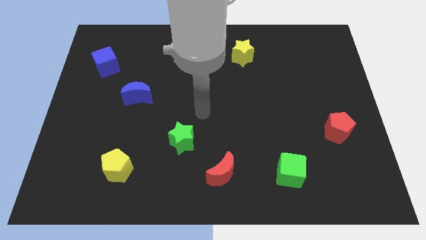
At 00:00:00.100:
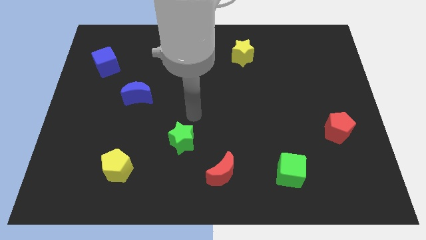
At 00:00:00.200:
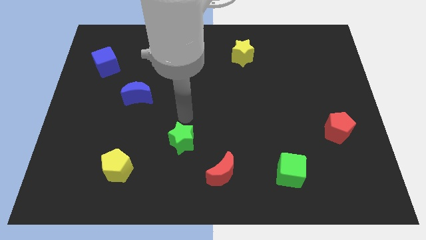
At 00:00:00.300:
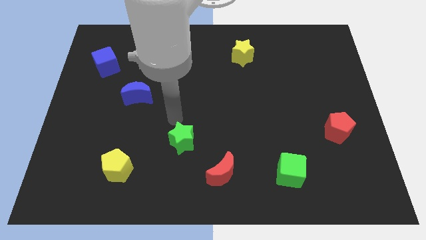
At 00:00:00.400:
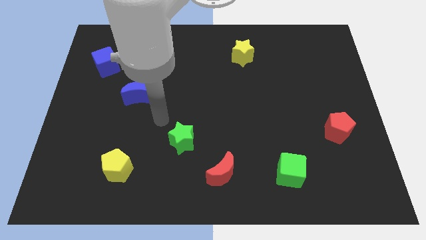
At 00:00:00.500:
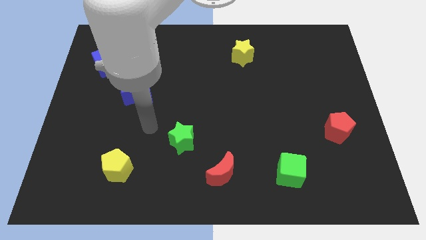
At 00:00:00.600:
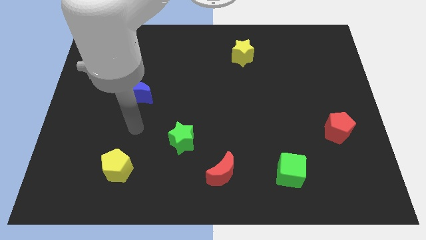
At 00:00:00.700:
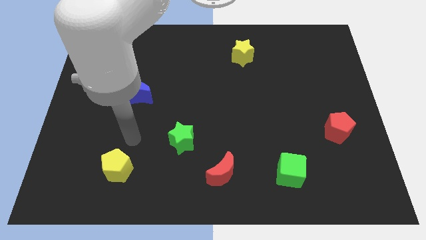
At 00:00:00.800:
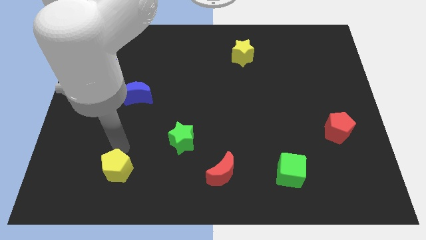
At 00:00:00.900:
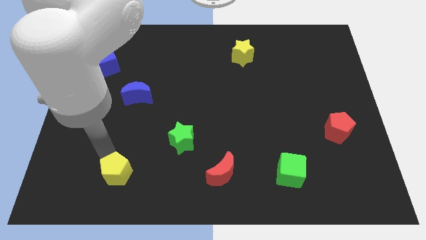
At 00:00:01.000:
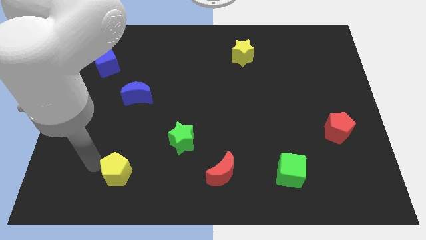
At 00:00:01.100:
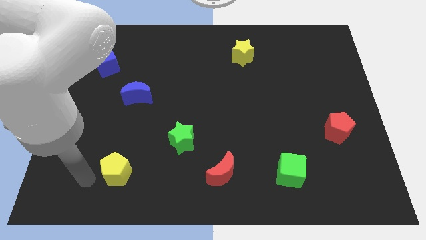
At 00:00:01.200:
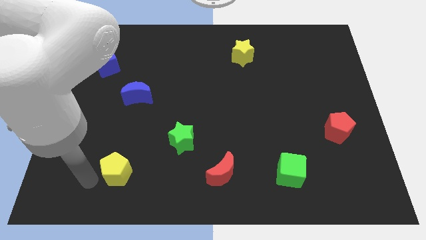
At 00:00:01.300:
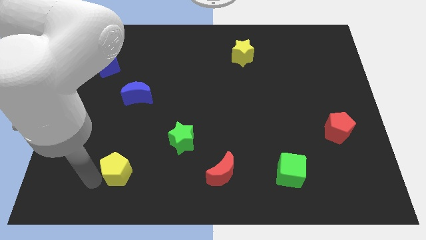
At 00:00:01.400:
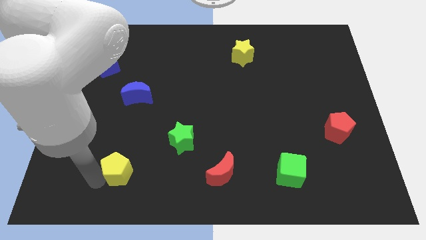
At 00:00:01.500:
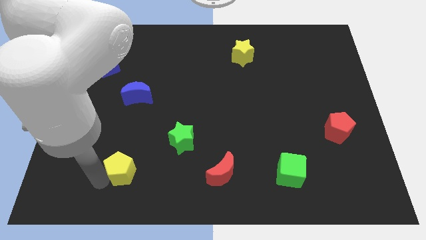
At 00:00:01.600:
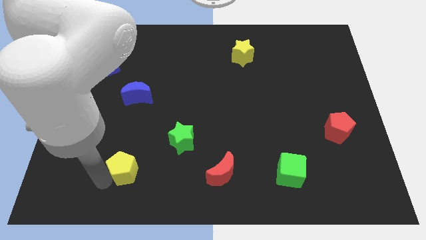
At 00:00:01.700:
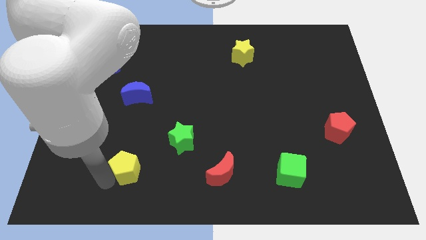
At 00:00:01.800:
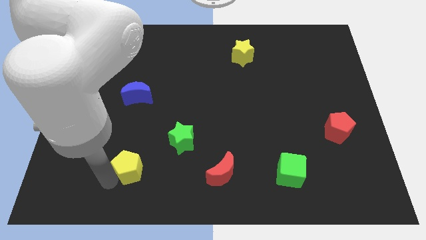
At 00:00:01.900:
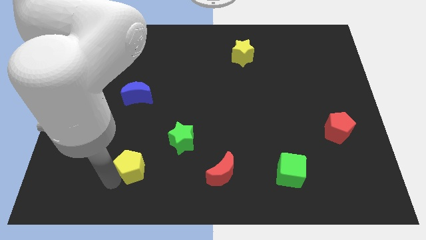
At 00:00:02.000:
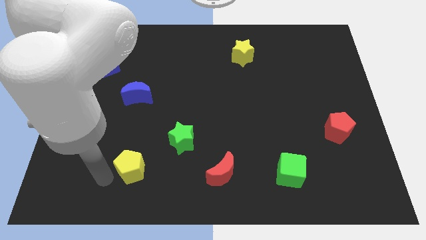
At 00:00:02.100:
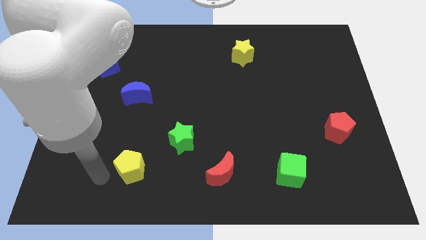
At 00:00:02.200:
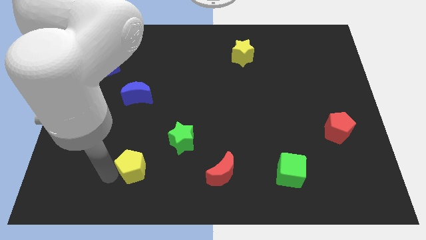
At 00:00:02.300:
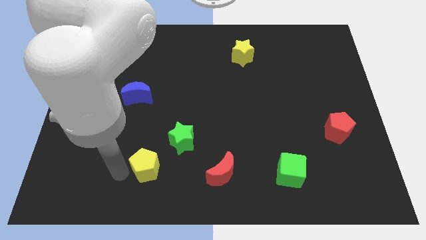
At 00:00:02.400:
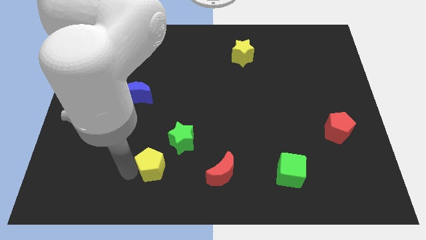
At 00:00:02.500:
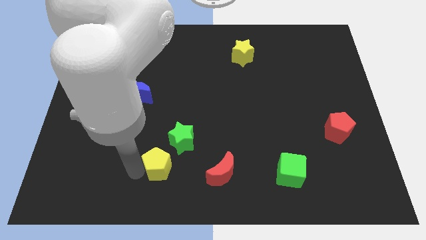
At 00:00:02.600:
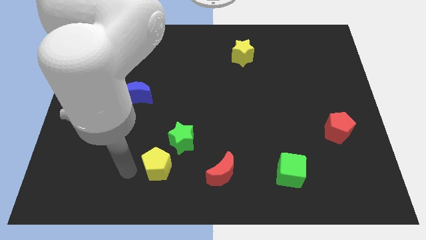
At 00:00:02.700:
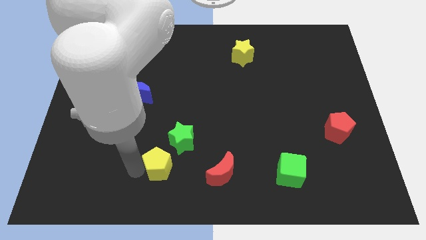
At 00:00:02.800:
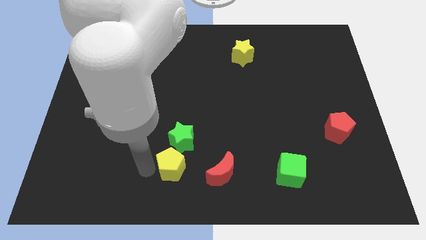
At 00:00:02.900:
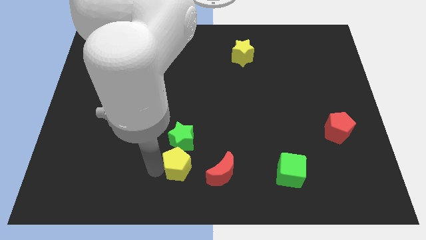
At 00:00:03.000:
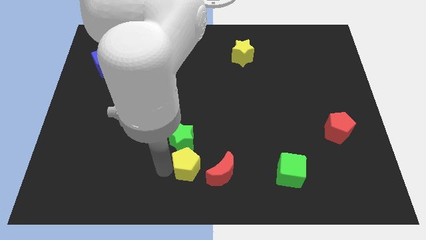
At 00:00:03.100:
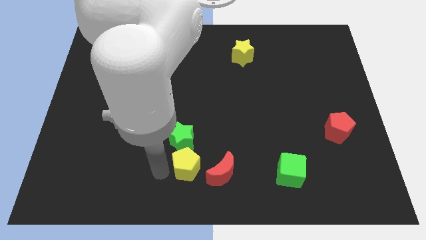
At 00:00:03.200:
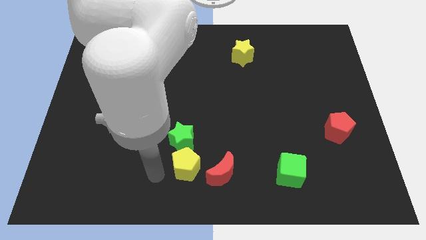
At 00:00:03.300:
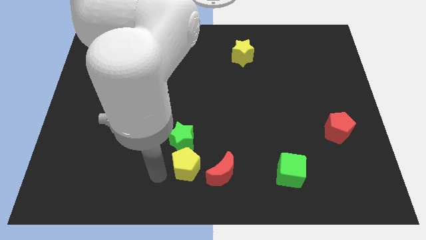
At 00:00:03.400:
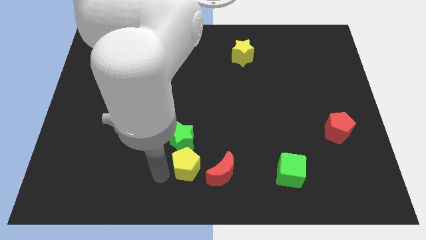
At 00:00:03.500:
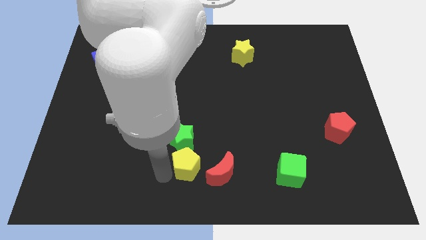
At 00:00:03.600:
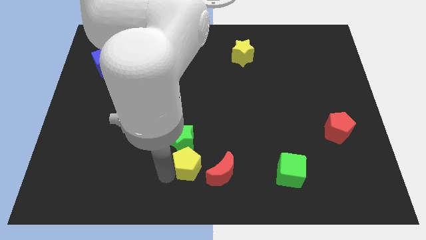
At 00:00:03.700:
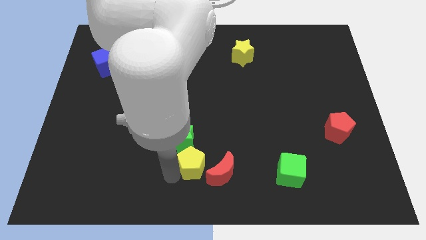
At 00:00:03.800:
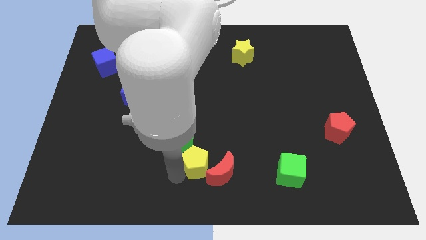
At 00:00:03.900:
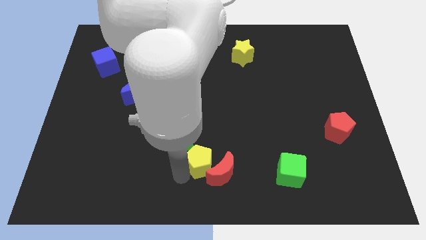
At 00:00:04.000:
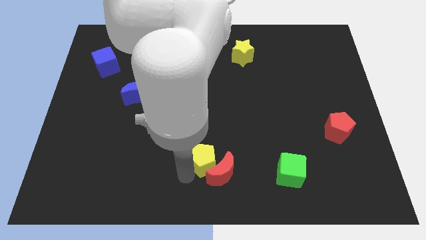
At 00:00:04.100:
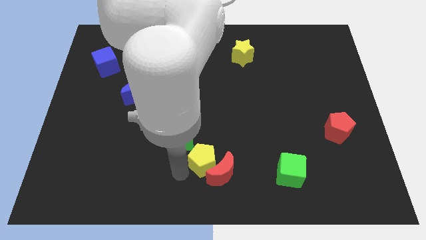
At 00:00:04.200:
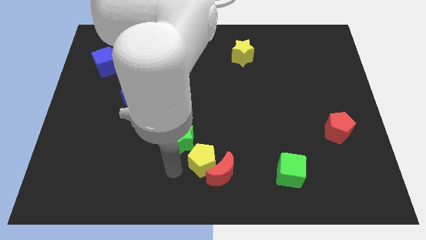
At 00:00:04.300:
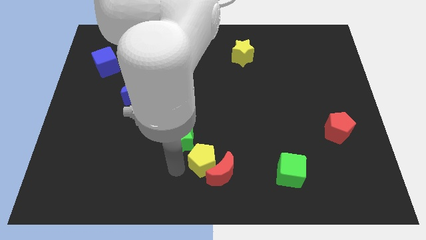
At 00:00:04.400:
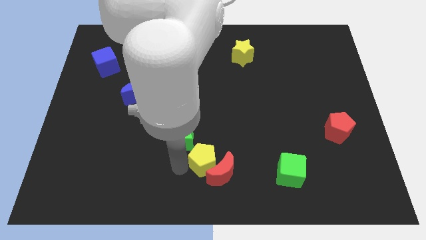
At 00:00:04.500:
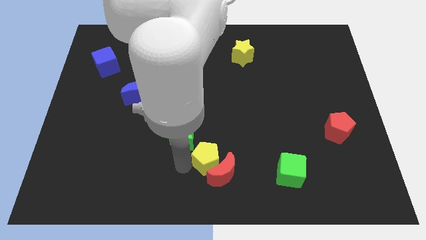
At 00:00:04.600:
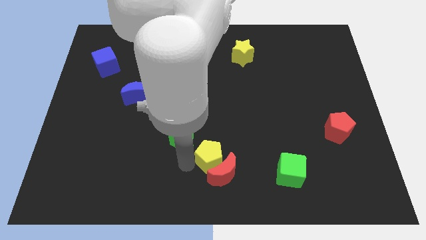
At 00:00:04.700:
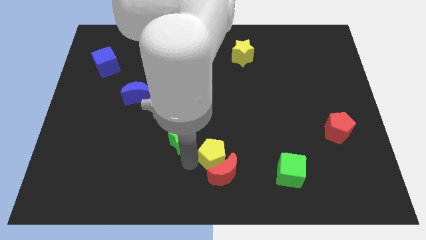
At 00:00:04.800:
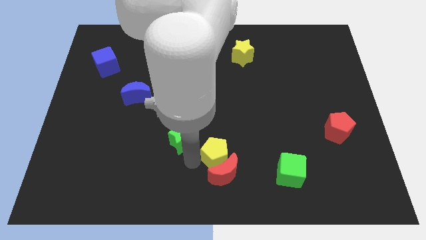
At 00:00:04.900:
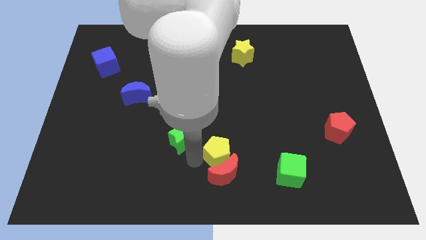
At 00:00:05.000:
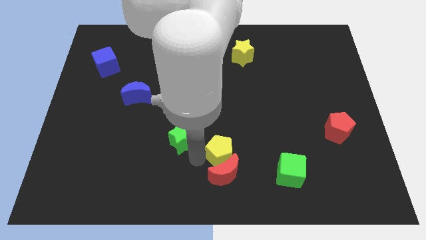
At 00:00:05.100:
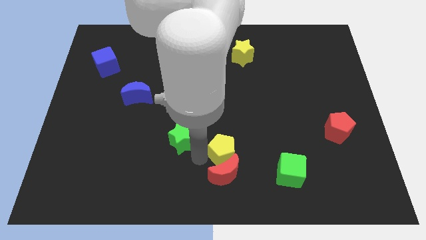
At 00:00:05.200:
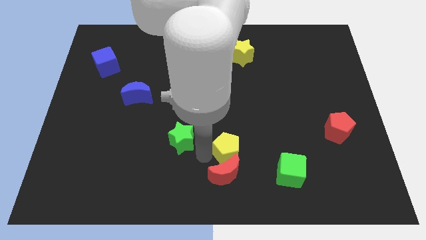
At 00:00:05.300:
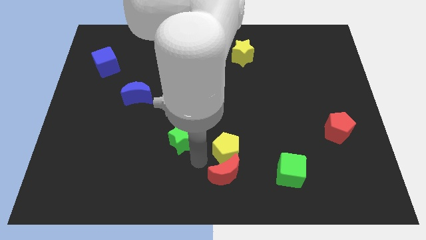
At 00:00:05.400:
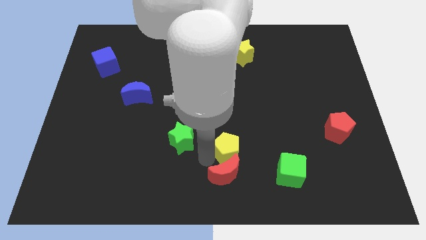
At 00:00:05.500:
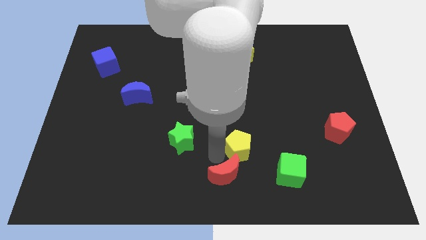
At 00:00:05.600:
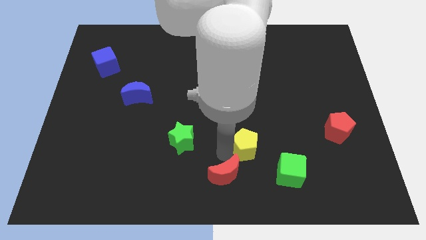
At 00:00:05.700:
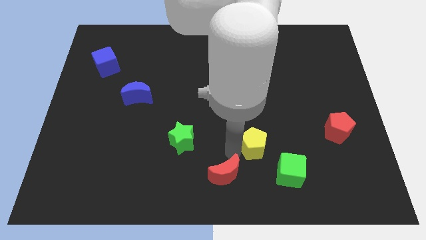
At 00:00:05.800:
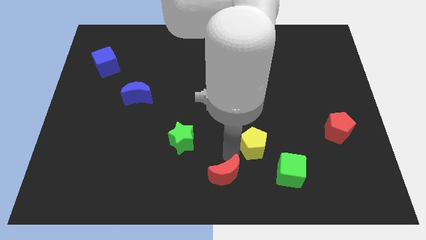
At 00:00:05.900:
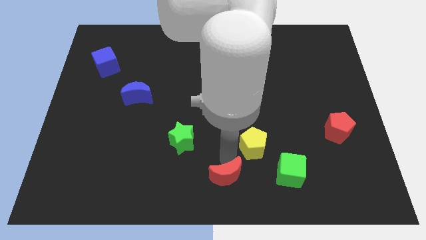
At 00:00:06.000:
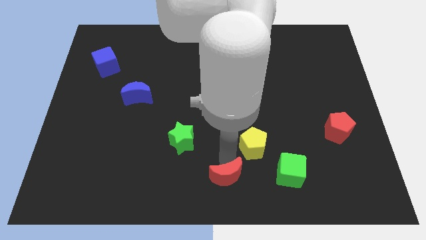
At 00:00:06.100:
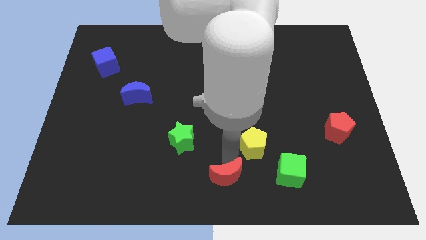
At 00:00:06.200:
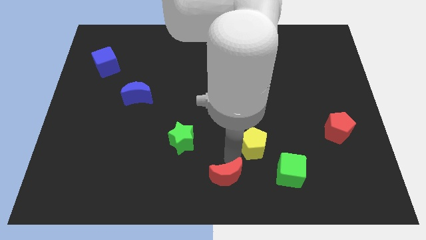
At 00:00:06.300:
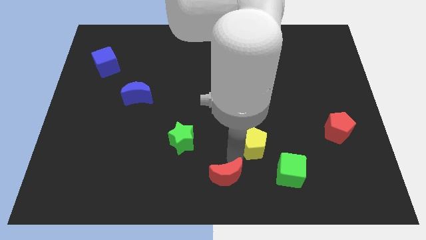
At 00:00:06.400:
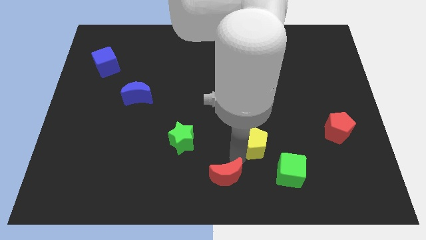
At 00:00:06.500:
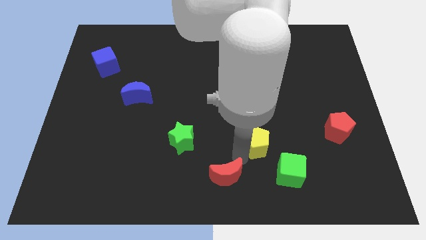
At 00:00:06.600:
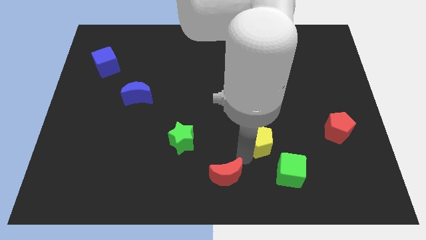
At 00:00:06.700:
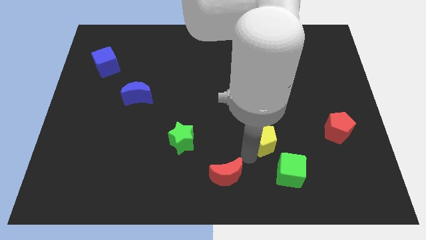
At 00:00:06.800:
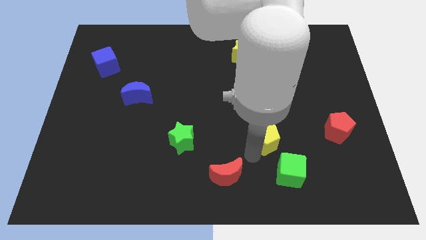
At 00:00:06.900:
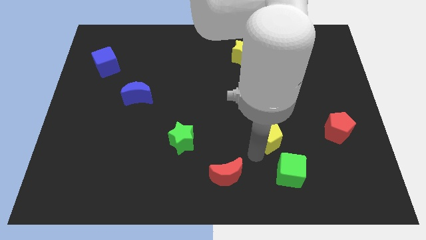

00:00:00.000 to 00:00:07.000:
slide the yellow pentagon to the left side of the red pentagon

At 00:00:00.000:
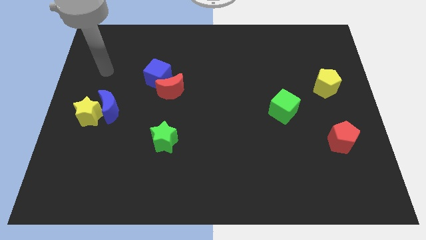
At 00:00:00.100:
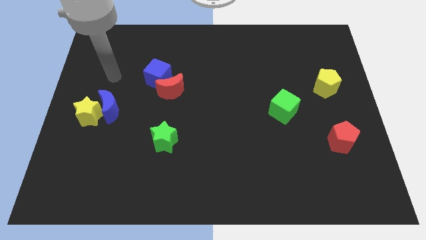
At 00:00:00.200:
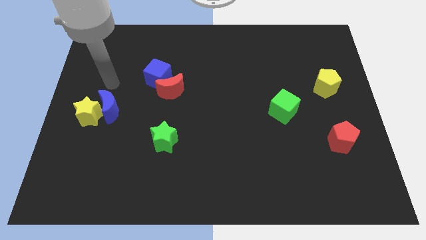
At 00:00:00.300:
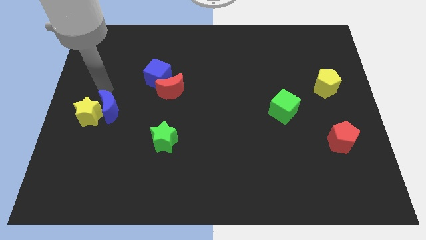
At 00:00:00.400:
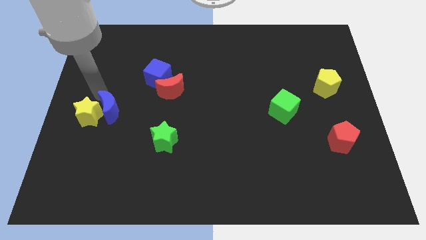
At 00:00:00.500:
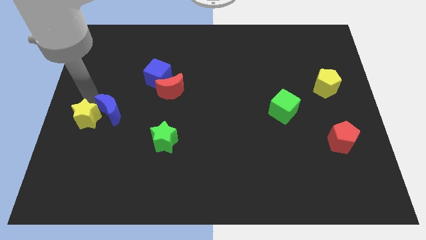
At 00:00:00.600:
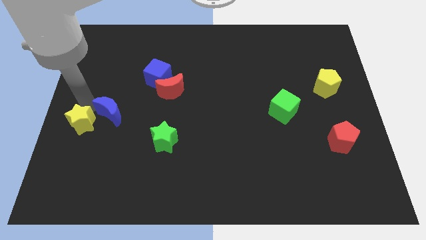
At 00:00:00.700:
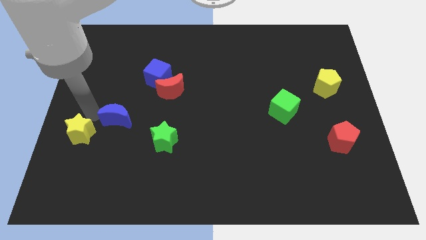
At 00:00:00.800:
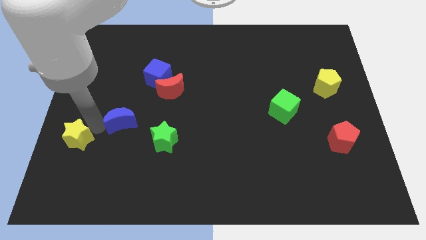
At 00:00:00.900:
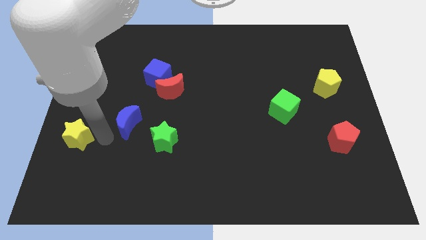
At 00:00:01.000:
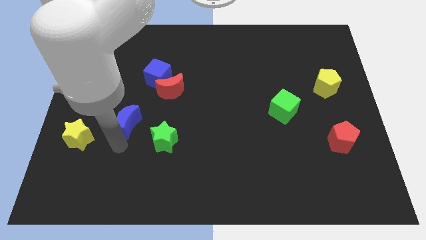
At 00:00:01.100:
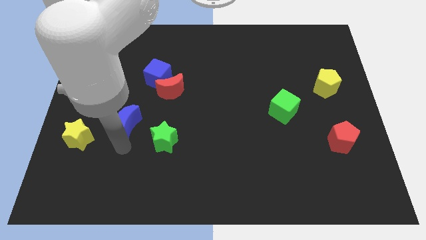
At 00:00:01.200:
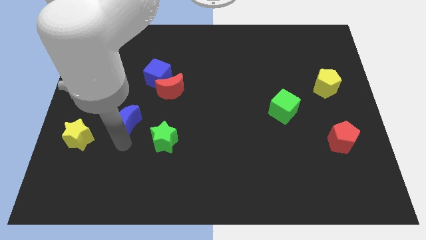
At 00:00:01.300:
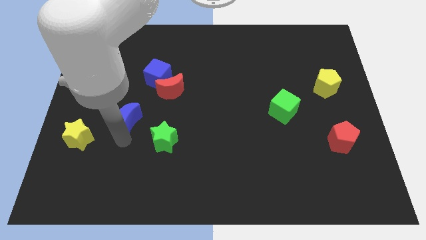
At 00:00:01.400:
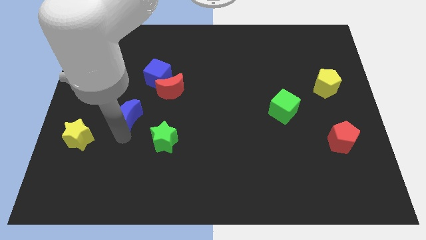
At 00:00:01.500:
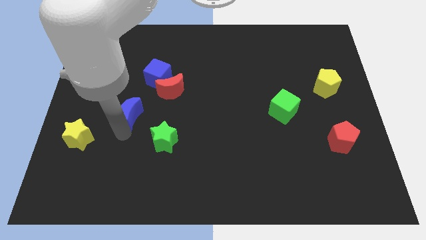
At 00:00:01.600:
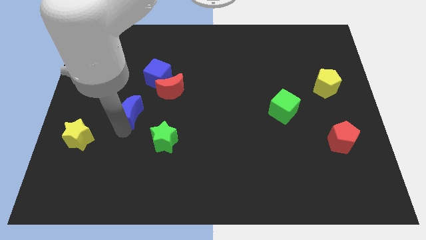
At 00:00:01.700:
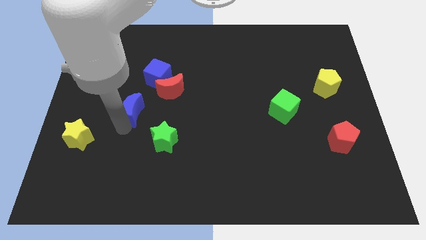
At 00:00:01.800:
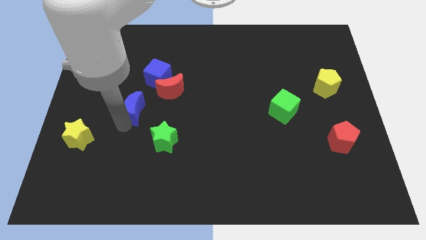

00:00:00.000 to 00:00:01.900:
push the blue moon to the bottom left of the blue cube
